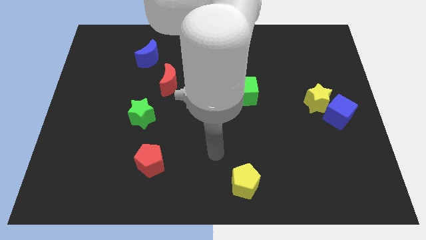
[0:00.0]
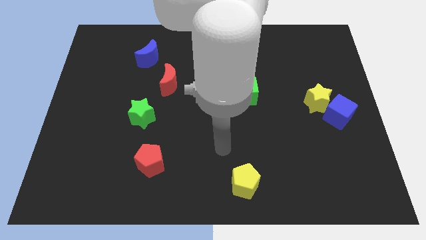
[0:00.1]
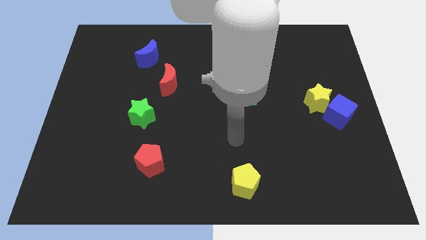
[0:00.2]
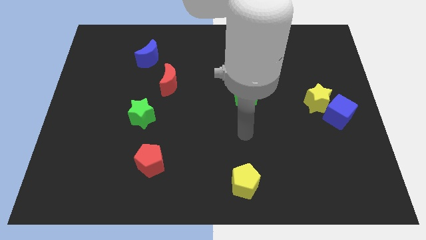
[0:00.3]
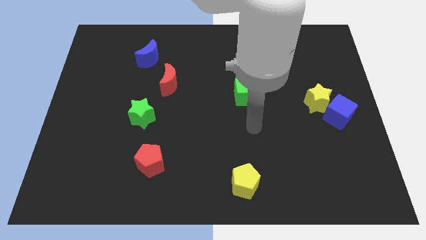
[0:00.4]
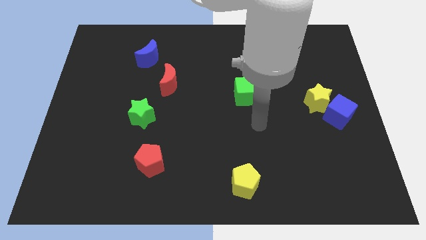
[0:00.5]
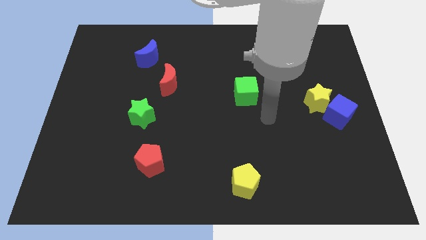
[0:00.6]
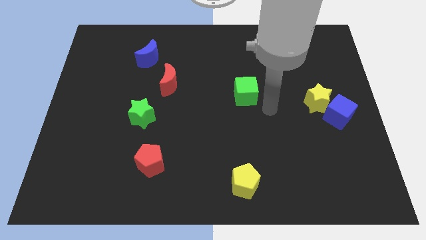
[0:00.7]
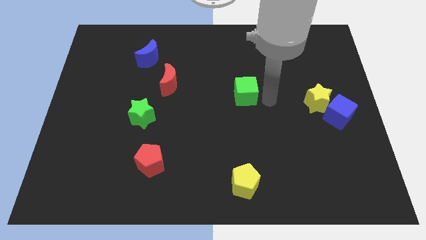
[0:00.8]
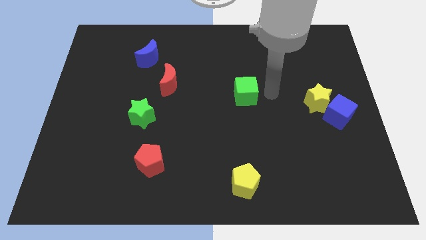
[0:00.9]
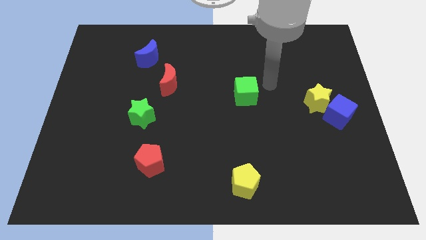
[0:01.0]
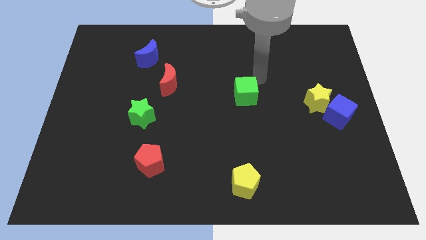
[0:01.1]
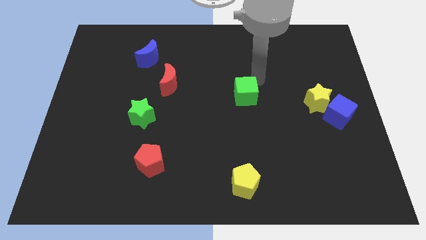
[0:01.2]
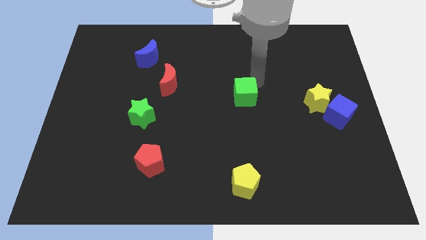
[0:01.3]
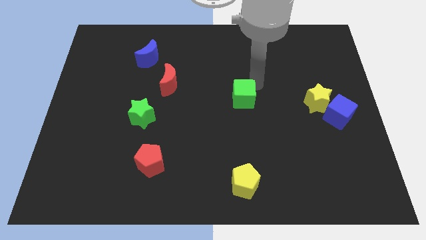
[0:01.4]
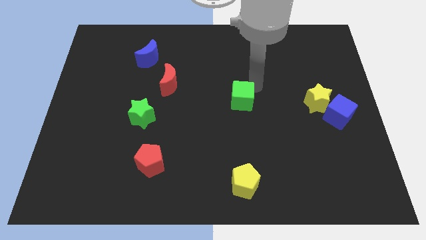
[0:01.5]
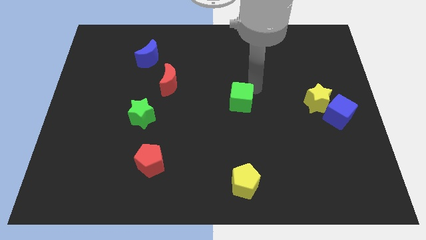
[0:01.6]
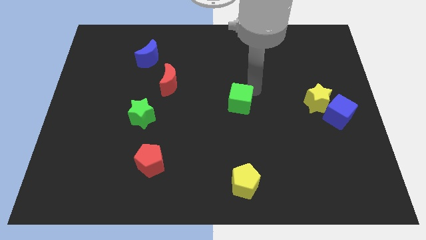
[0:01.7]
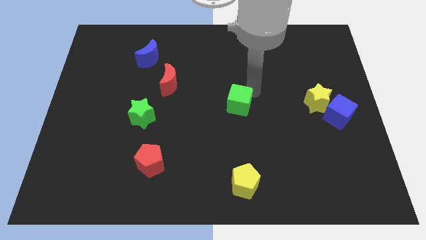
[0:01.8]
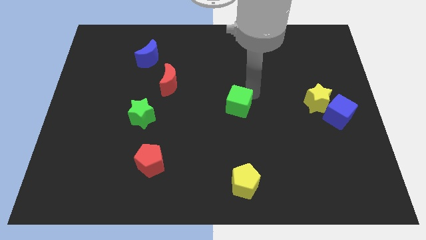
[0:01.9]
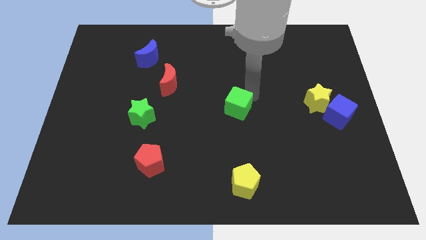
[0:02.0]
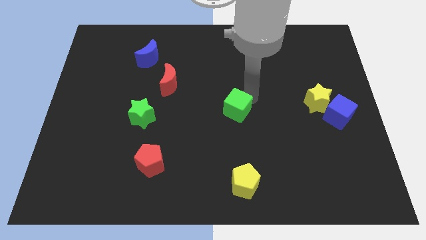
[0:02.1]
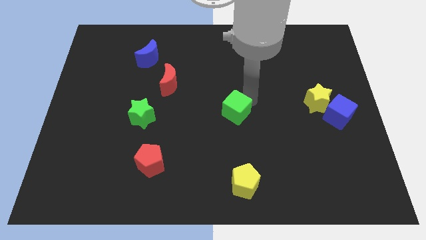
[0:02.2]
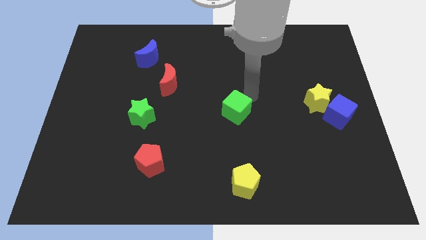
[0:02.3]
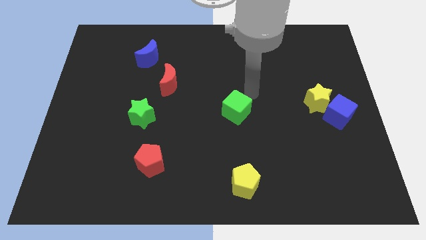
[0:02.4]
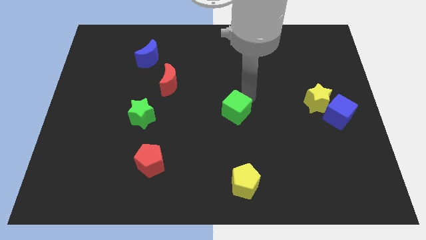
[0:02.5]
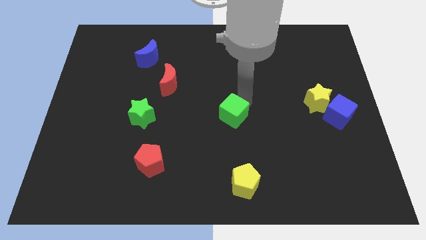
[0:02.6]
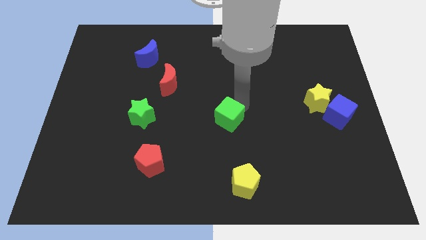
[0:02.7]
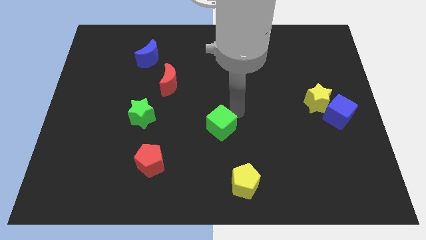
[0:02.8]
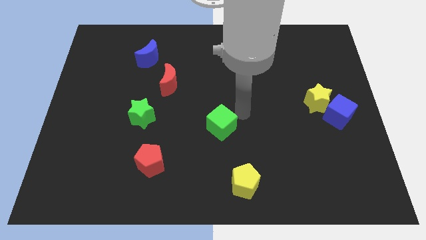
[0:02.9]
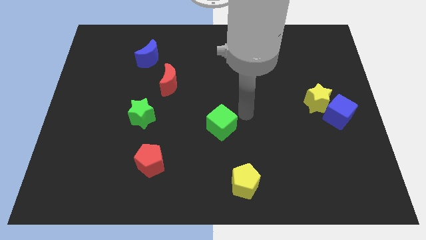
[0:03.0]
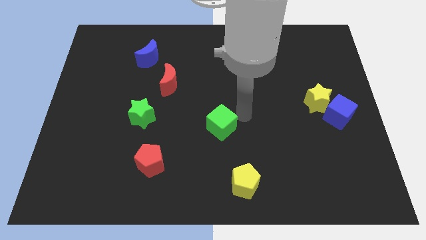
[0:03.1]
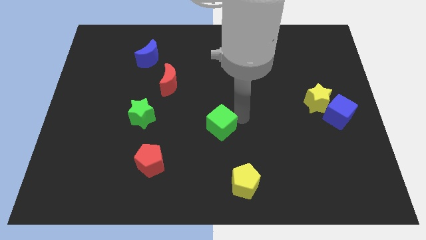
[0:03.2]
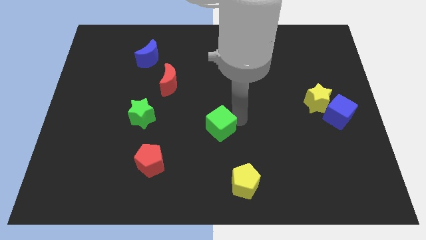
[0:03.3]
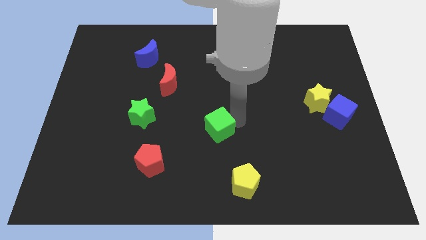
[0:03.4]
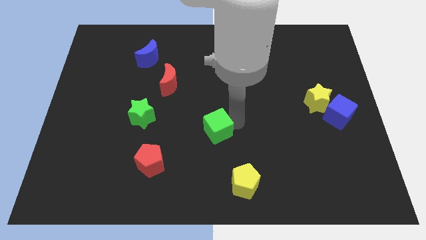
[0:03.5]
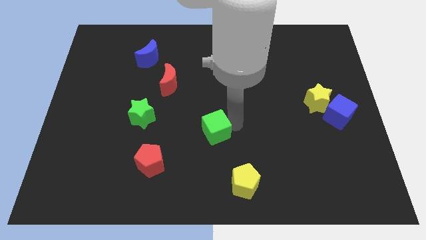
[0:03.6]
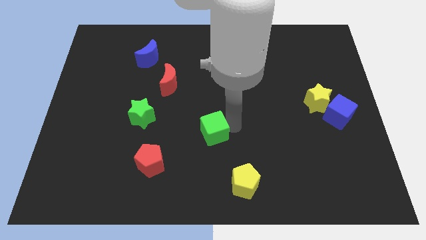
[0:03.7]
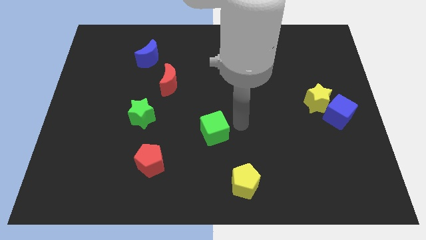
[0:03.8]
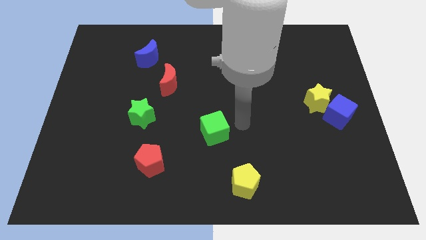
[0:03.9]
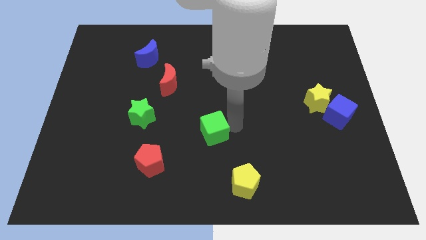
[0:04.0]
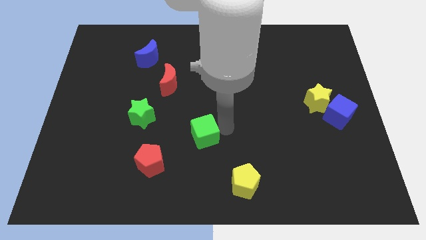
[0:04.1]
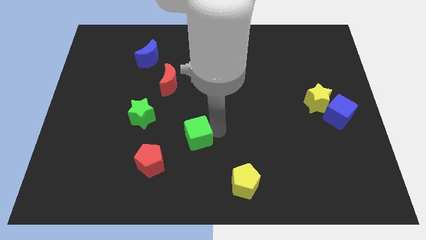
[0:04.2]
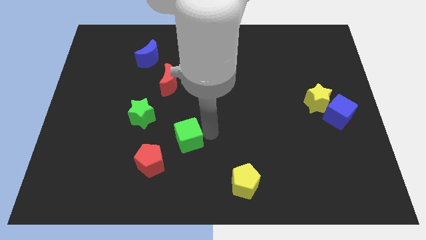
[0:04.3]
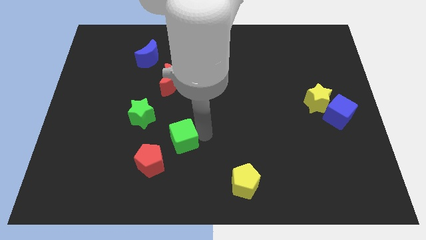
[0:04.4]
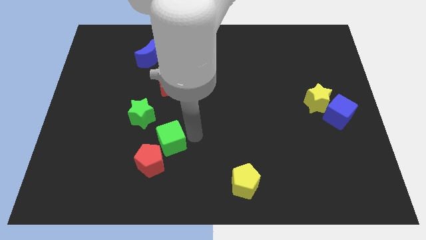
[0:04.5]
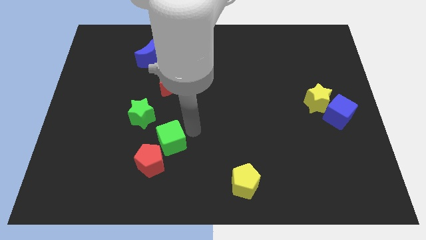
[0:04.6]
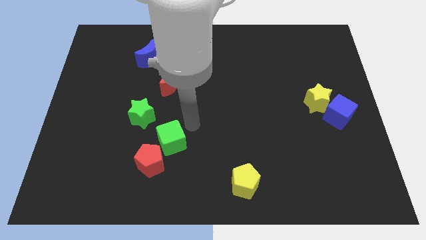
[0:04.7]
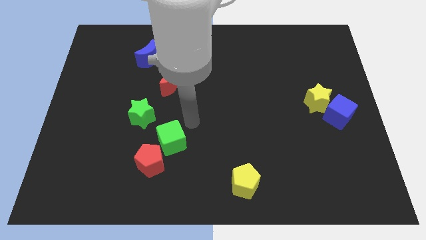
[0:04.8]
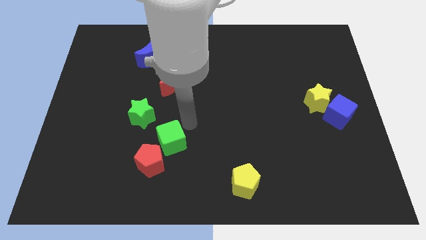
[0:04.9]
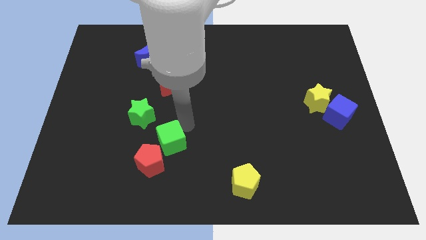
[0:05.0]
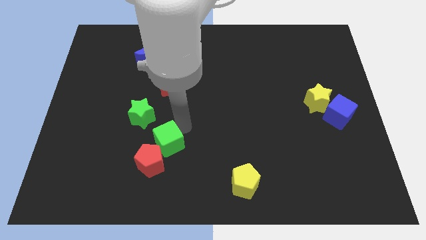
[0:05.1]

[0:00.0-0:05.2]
move the green cube towards the red pentagon

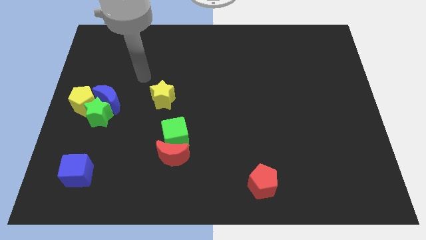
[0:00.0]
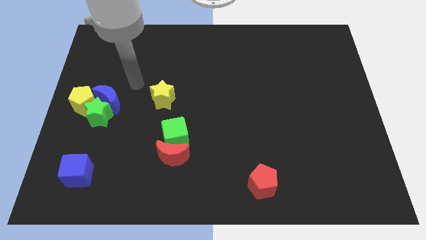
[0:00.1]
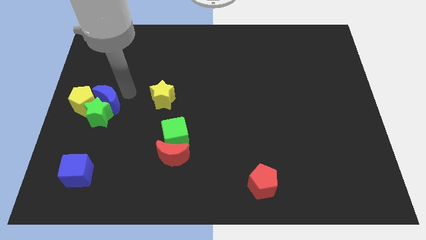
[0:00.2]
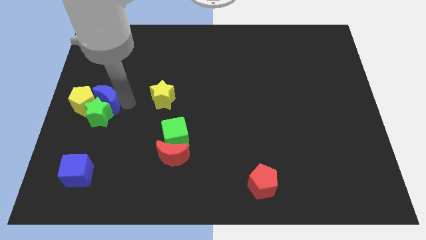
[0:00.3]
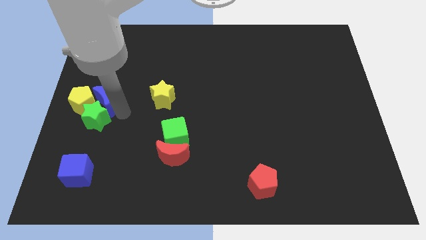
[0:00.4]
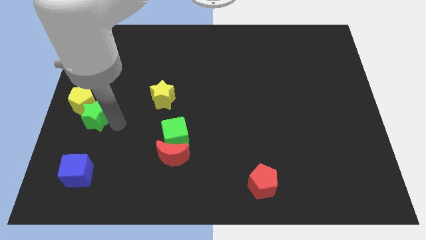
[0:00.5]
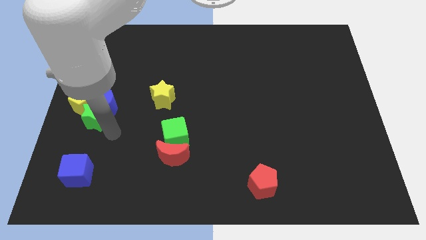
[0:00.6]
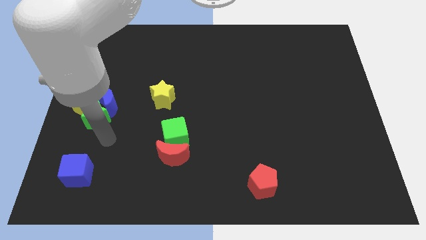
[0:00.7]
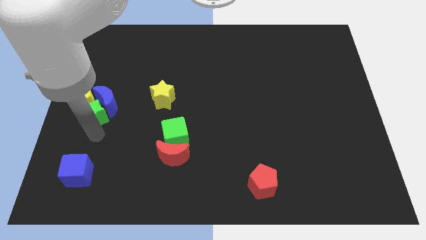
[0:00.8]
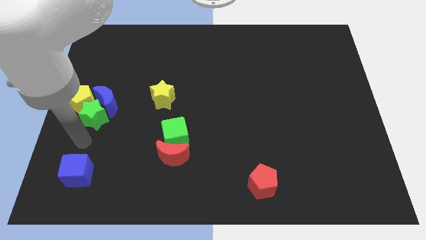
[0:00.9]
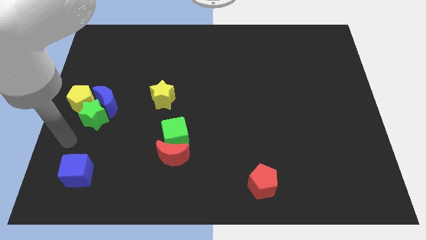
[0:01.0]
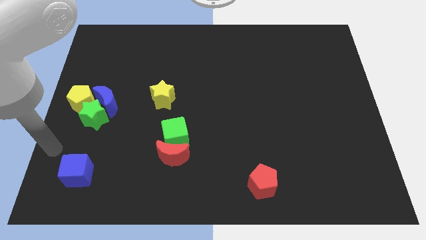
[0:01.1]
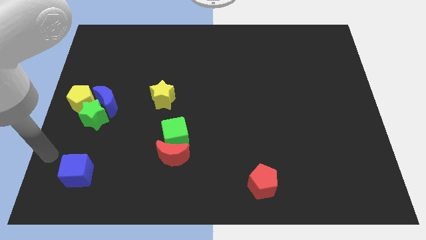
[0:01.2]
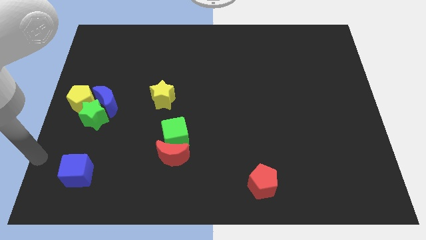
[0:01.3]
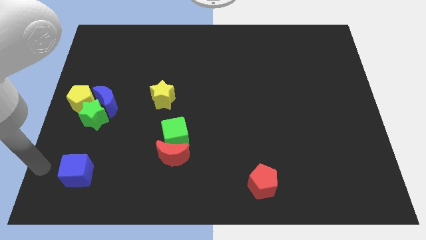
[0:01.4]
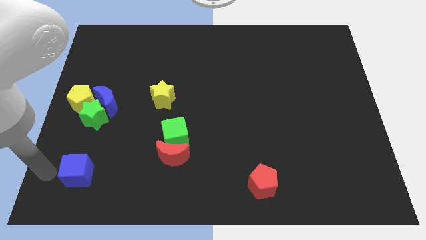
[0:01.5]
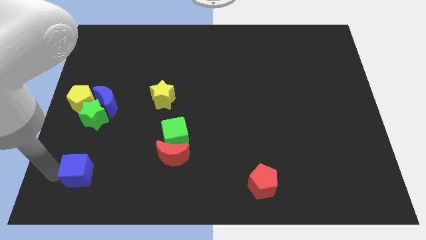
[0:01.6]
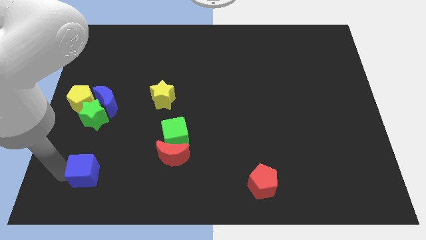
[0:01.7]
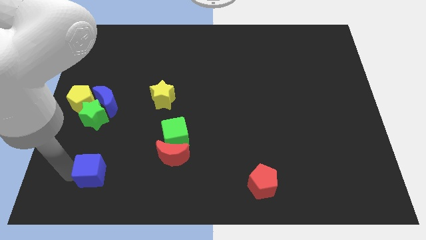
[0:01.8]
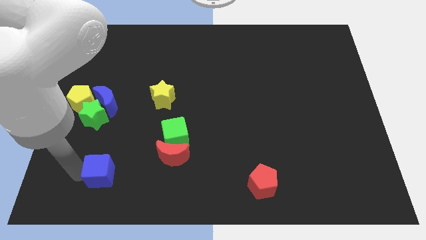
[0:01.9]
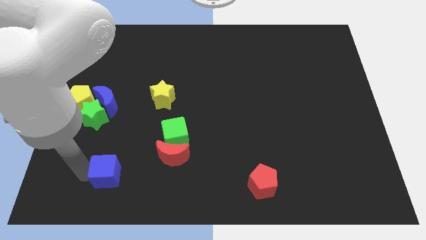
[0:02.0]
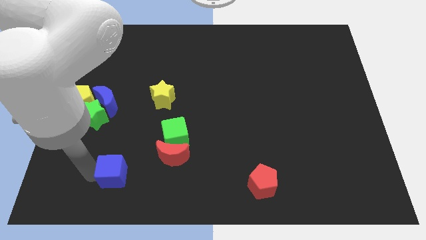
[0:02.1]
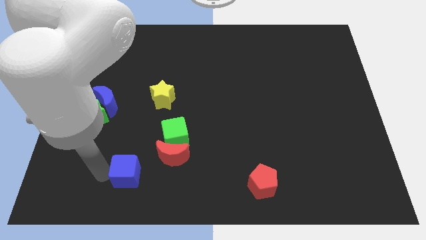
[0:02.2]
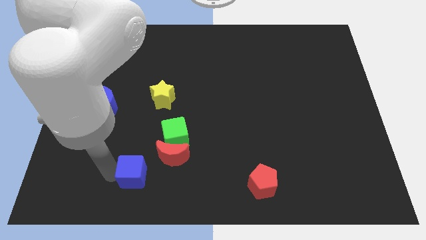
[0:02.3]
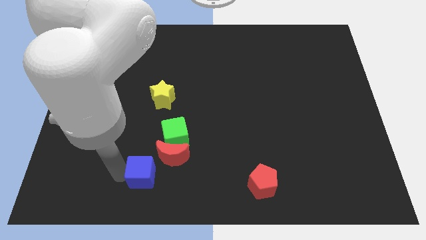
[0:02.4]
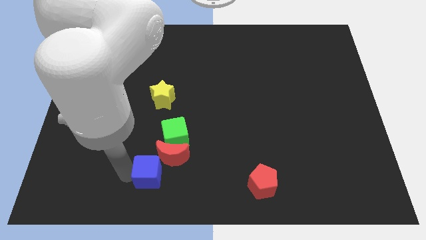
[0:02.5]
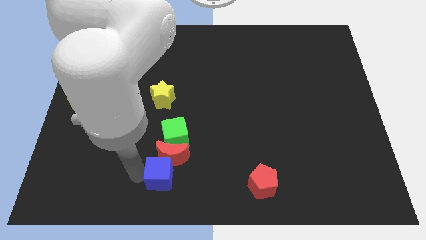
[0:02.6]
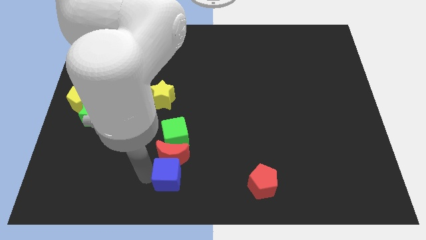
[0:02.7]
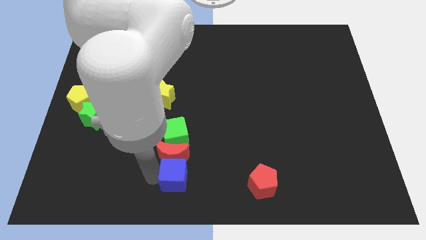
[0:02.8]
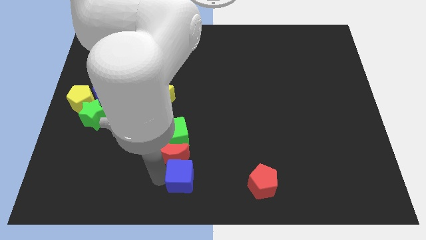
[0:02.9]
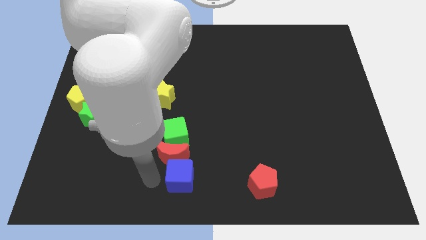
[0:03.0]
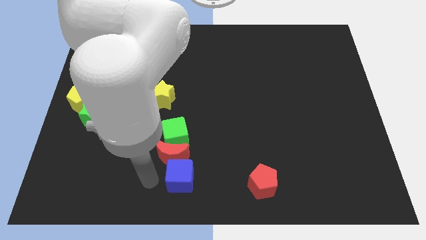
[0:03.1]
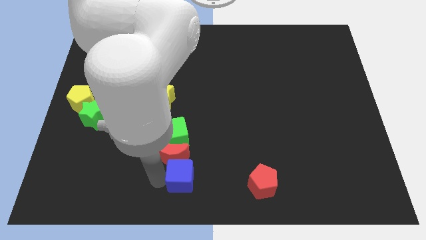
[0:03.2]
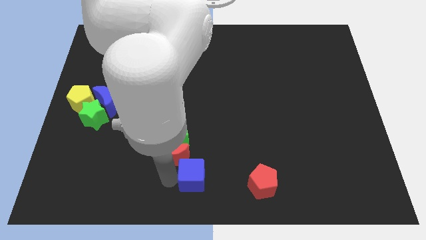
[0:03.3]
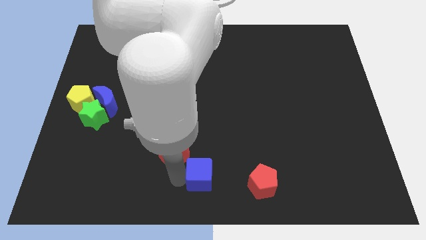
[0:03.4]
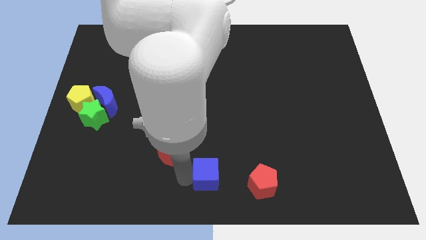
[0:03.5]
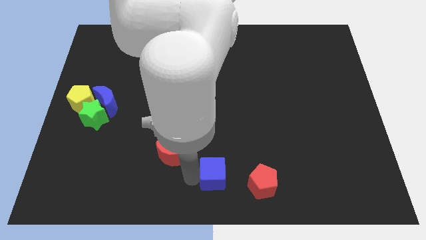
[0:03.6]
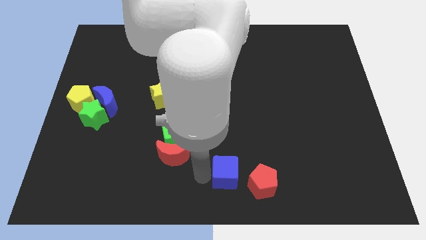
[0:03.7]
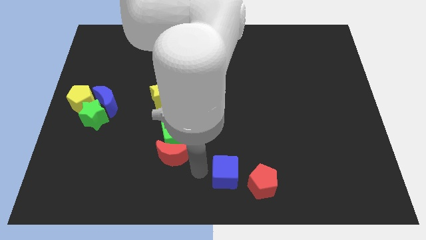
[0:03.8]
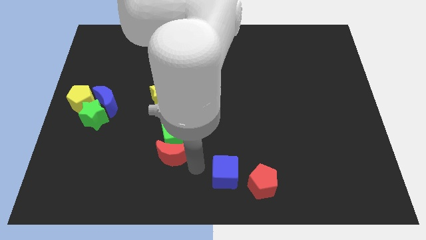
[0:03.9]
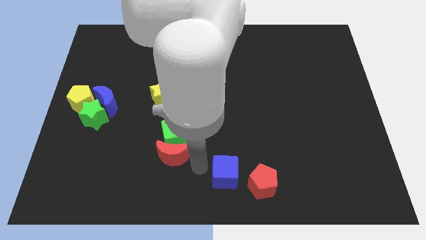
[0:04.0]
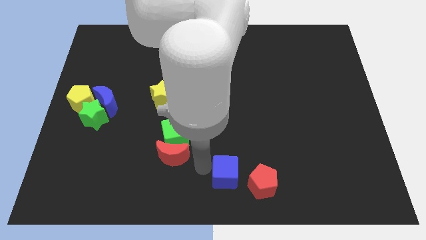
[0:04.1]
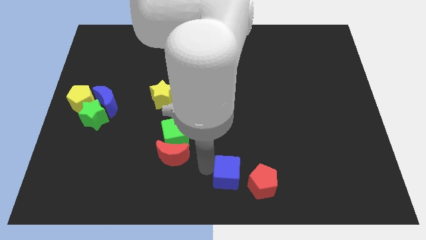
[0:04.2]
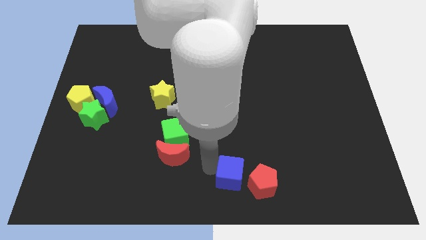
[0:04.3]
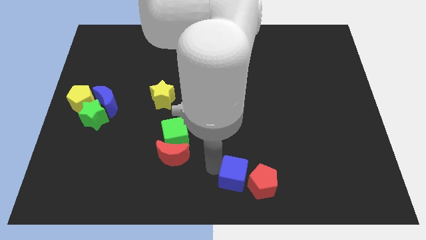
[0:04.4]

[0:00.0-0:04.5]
push the blue cube next to the red pentagon
